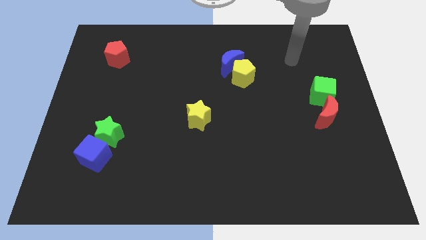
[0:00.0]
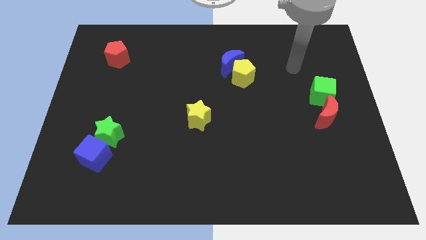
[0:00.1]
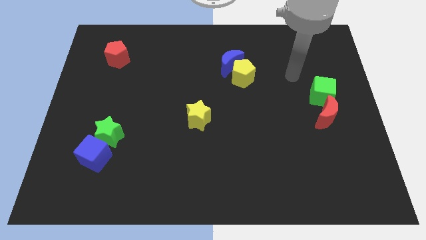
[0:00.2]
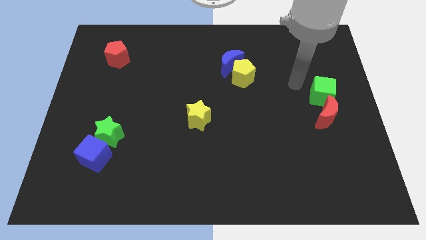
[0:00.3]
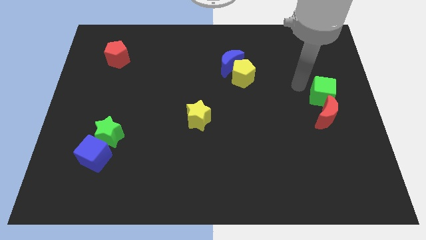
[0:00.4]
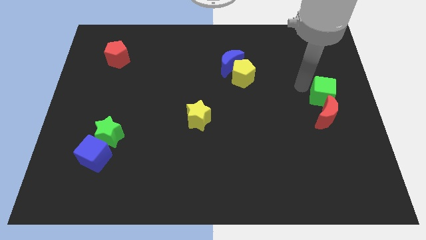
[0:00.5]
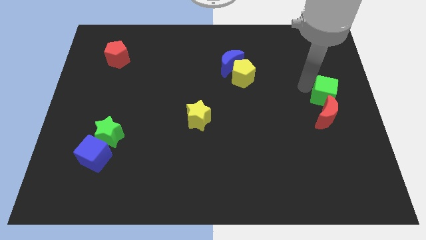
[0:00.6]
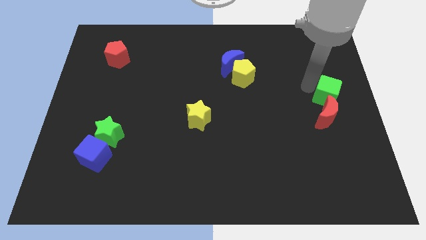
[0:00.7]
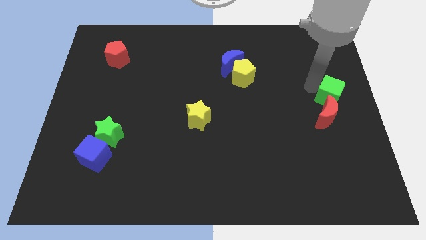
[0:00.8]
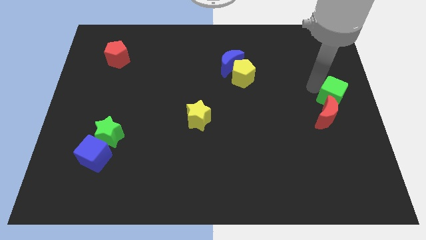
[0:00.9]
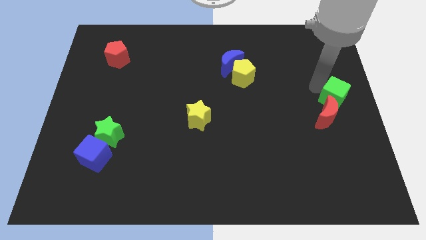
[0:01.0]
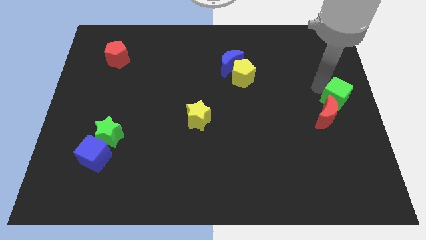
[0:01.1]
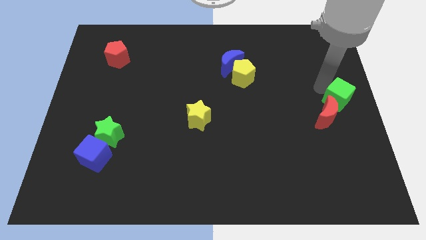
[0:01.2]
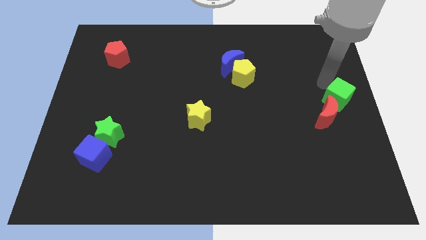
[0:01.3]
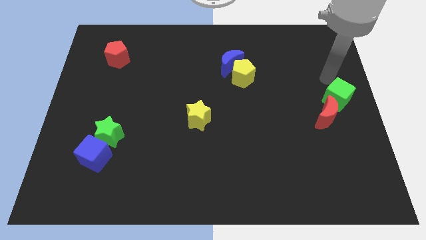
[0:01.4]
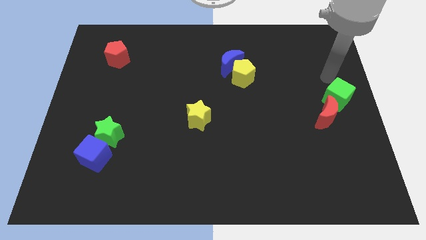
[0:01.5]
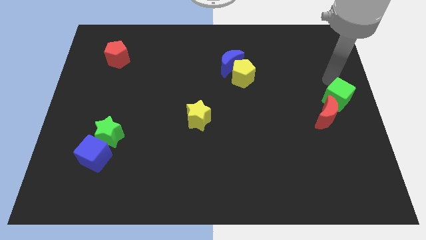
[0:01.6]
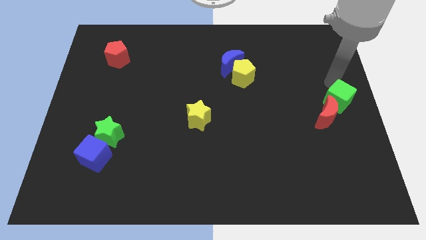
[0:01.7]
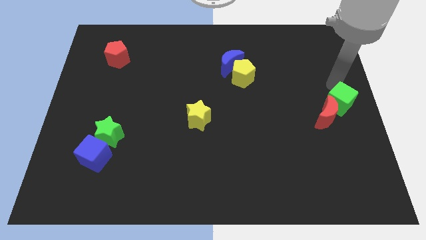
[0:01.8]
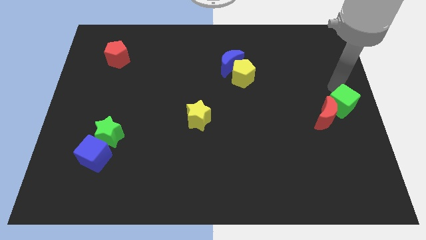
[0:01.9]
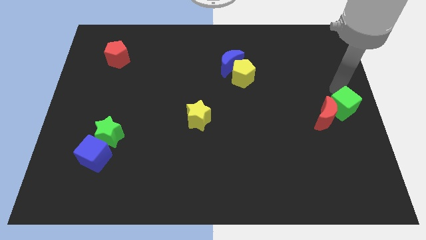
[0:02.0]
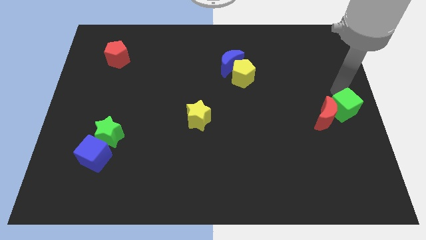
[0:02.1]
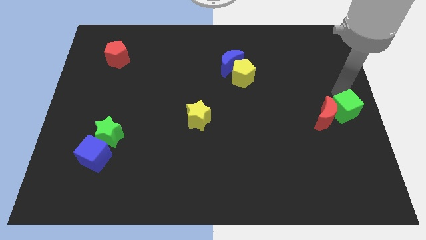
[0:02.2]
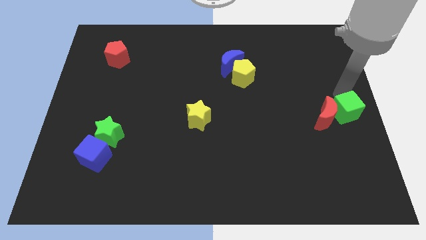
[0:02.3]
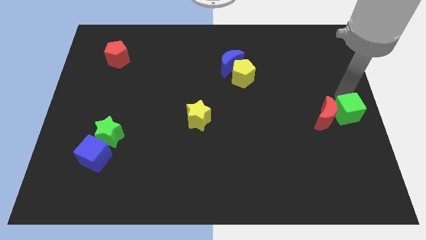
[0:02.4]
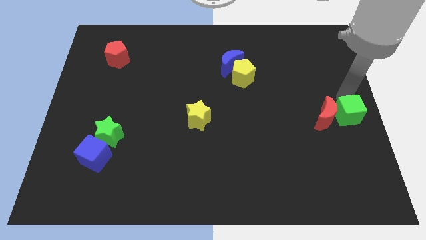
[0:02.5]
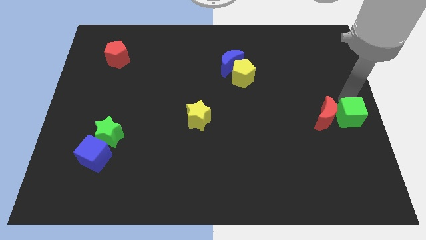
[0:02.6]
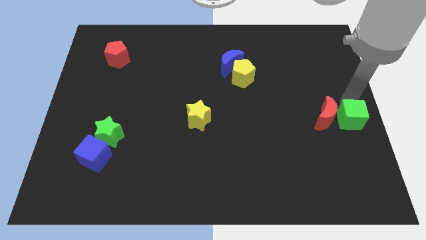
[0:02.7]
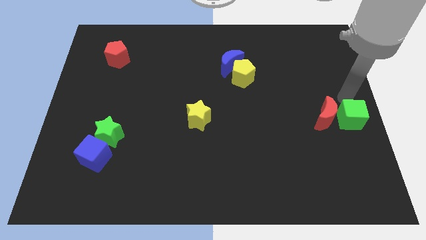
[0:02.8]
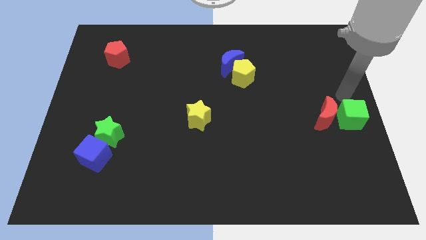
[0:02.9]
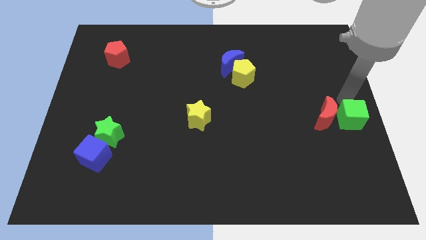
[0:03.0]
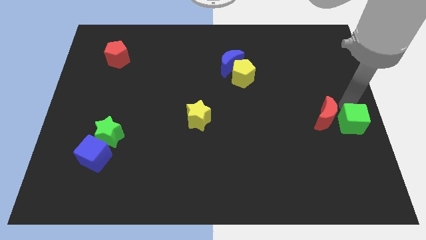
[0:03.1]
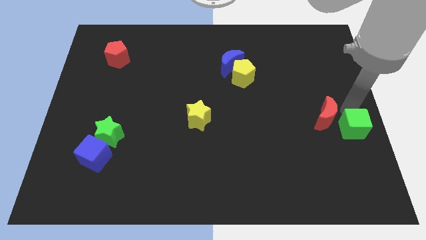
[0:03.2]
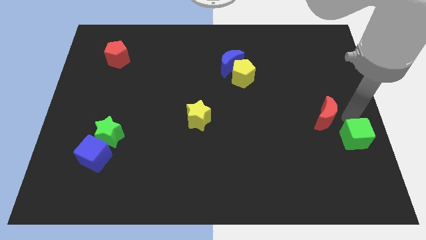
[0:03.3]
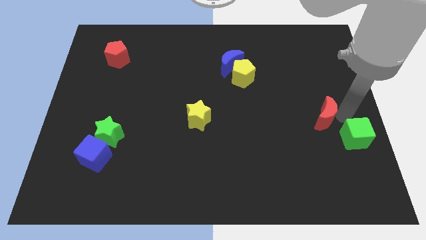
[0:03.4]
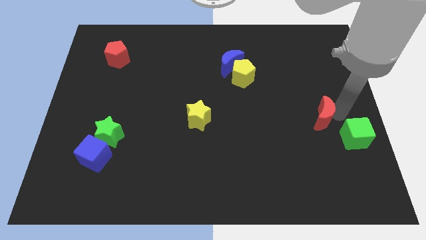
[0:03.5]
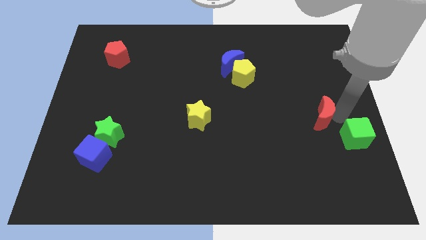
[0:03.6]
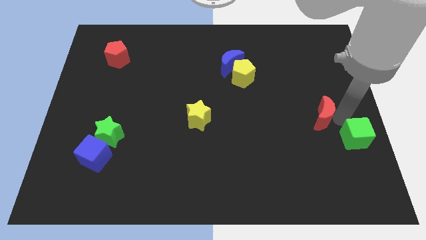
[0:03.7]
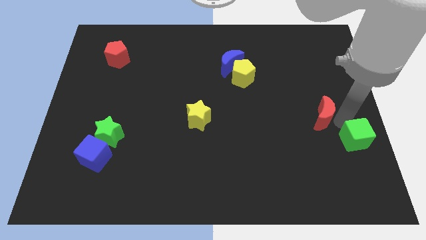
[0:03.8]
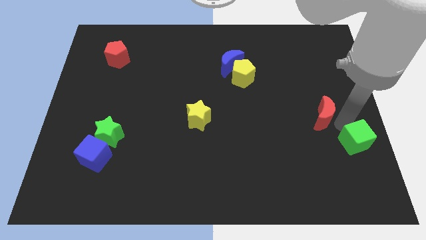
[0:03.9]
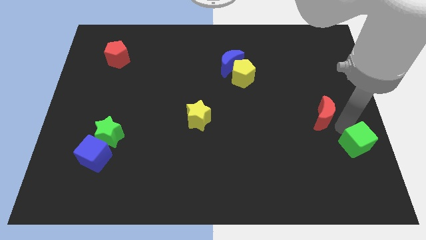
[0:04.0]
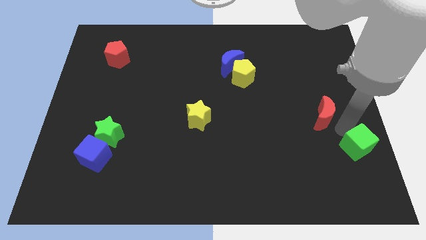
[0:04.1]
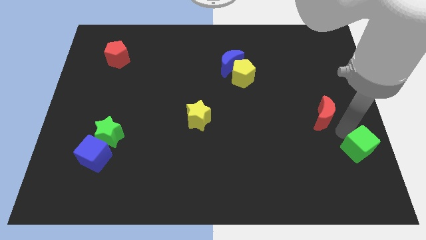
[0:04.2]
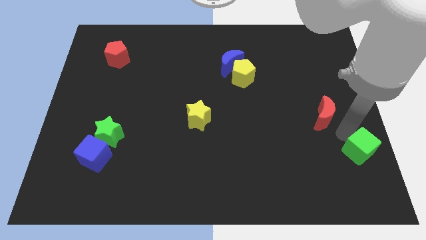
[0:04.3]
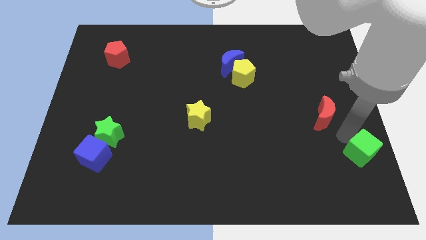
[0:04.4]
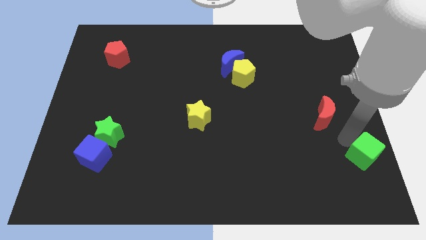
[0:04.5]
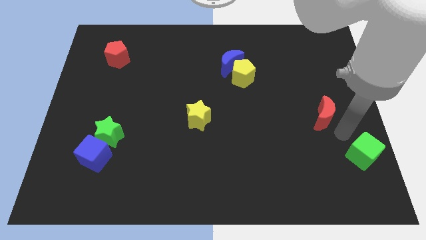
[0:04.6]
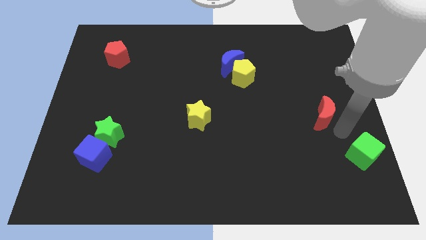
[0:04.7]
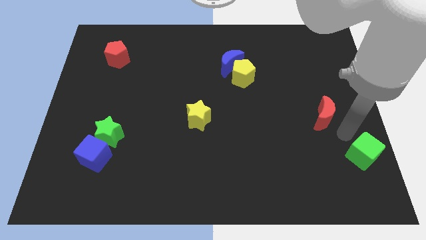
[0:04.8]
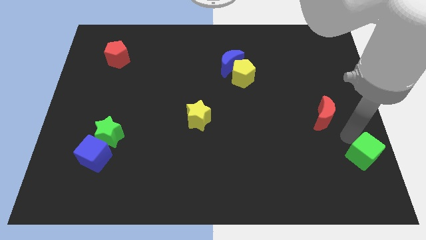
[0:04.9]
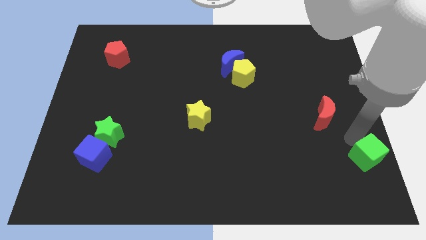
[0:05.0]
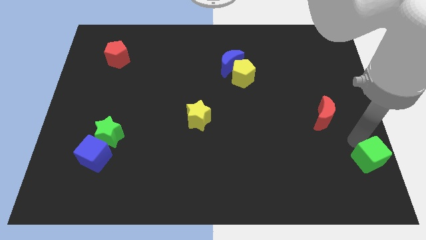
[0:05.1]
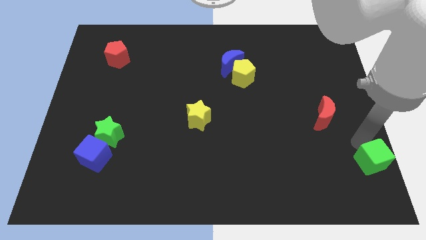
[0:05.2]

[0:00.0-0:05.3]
put the green cube to the bottom right of the board

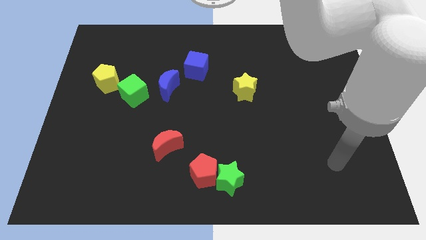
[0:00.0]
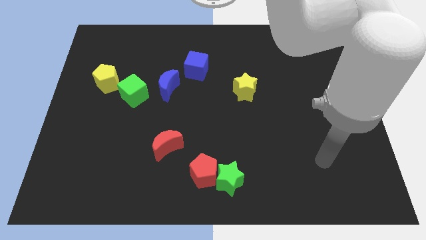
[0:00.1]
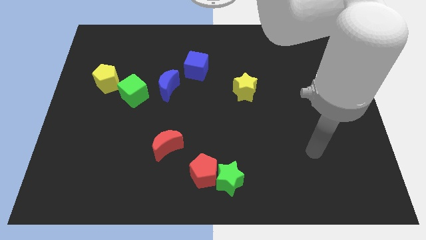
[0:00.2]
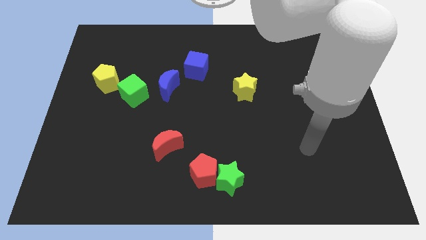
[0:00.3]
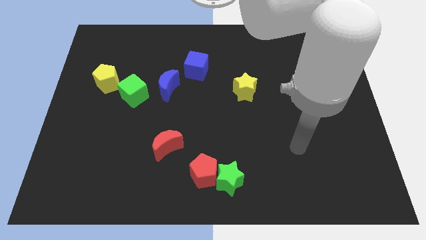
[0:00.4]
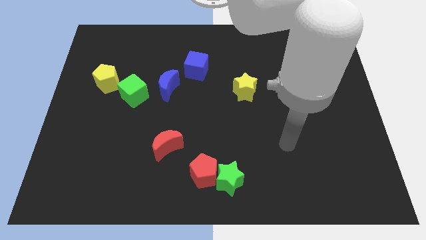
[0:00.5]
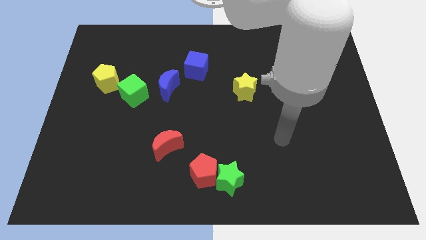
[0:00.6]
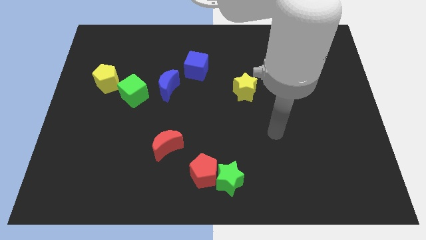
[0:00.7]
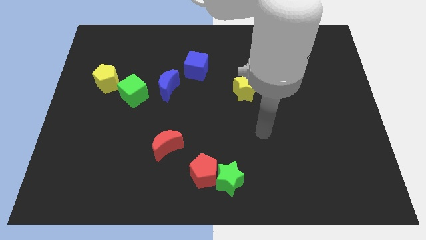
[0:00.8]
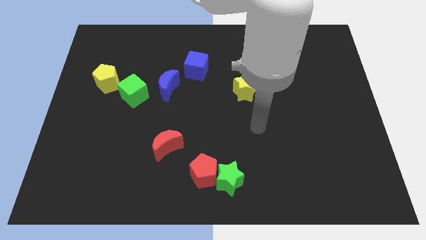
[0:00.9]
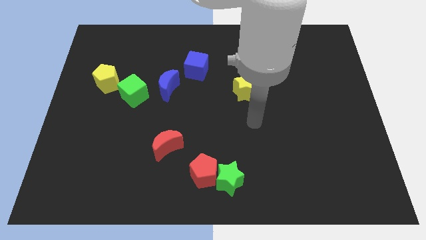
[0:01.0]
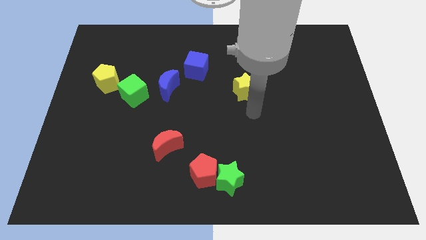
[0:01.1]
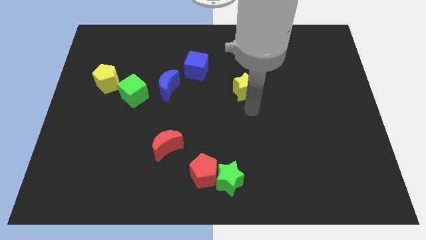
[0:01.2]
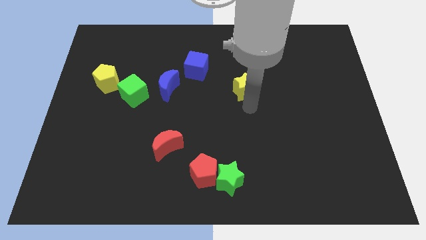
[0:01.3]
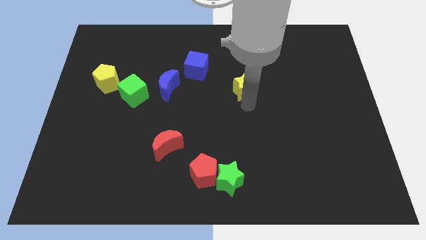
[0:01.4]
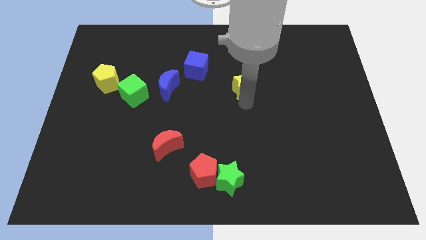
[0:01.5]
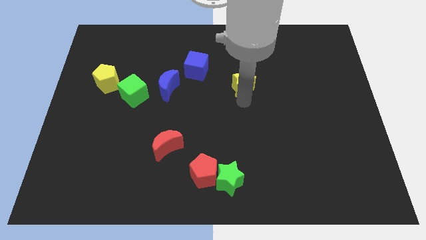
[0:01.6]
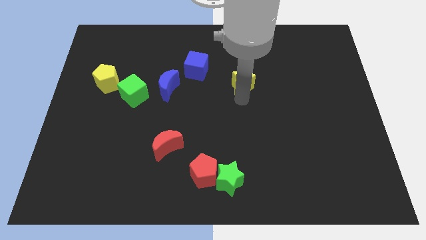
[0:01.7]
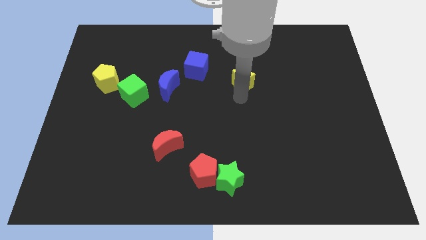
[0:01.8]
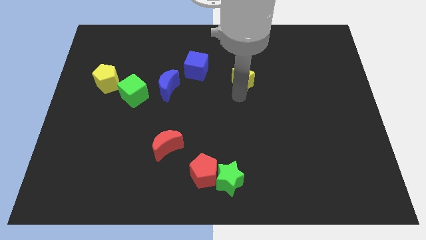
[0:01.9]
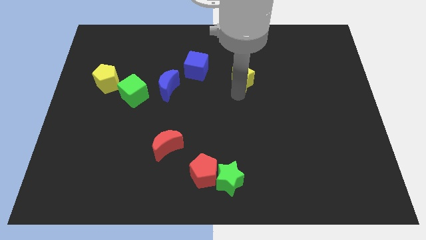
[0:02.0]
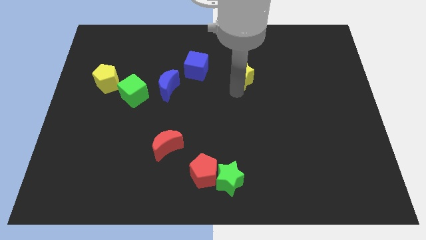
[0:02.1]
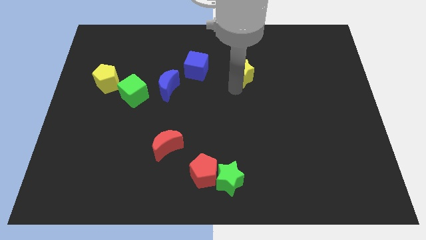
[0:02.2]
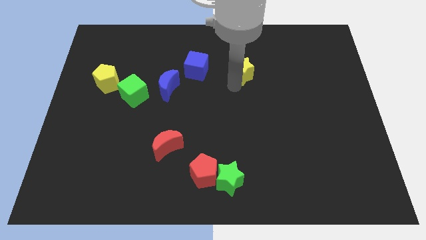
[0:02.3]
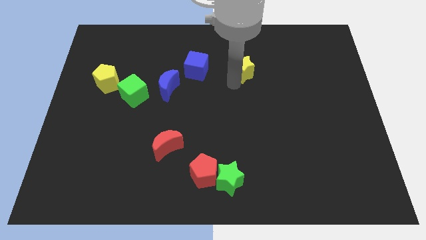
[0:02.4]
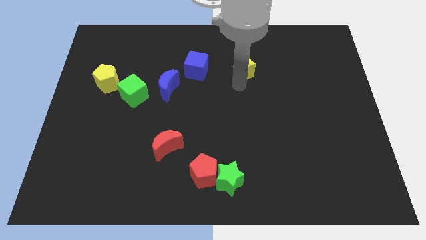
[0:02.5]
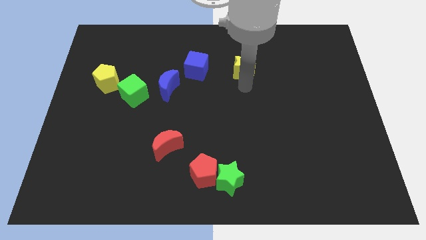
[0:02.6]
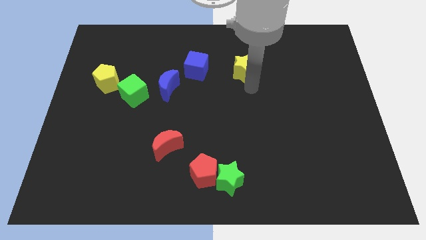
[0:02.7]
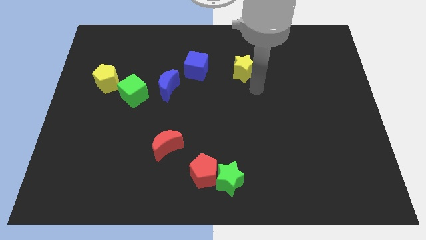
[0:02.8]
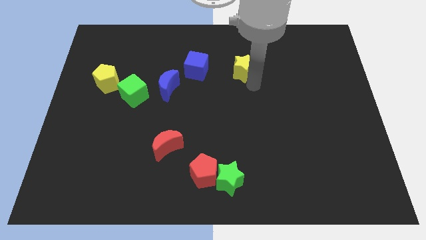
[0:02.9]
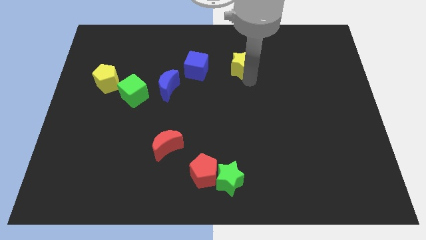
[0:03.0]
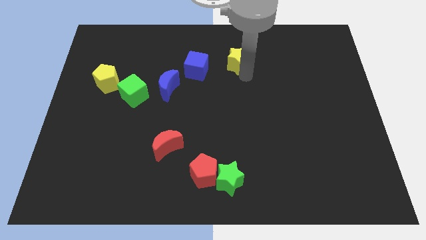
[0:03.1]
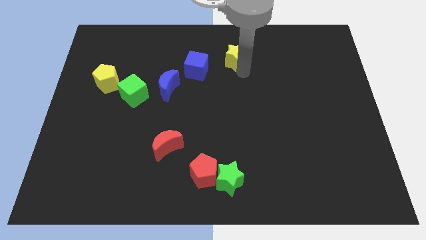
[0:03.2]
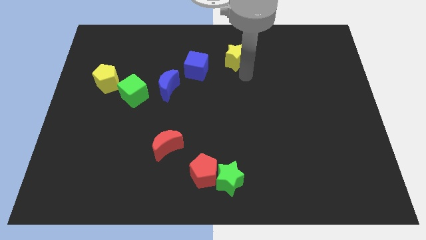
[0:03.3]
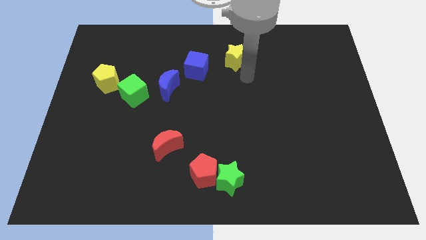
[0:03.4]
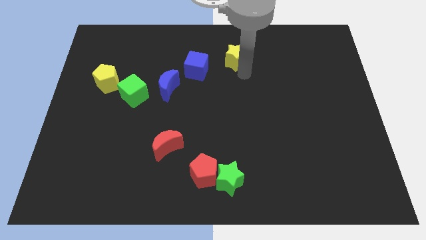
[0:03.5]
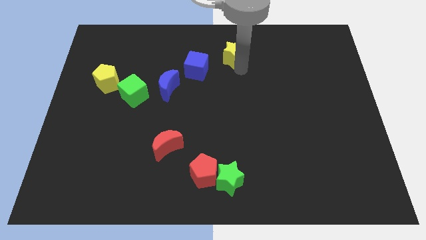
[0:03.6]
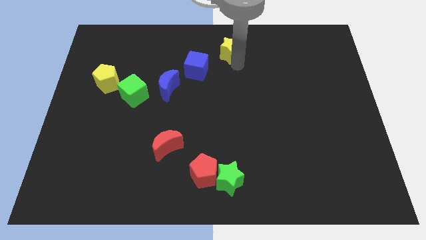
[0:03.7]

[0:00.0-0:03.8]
push the yellow star to the towards your base
